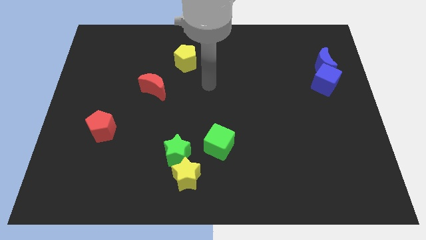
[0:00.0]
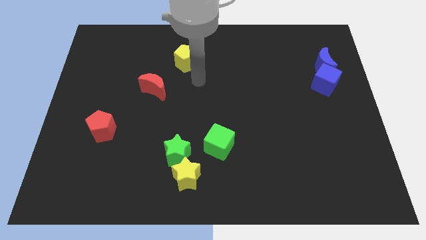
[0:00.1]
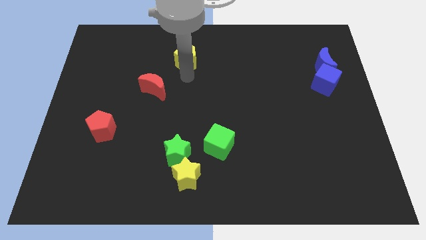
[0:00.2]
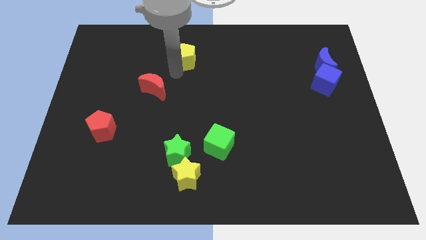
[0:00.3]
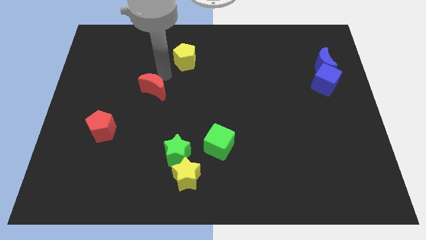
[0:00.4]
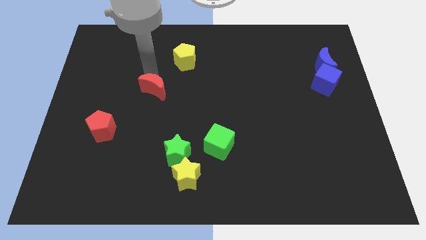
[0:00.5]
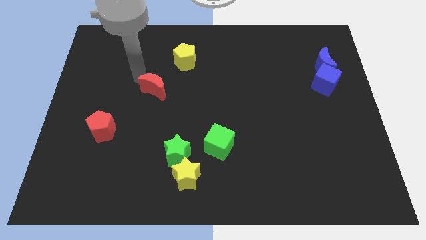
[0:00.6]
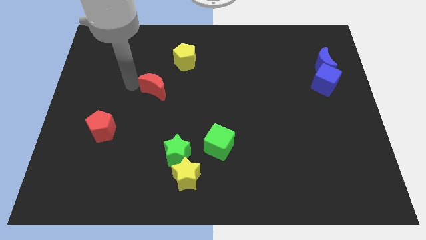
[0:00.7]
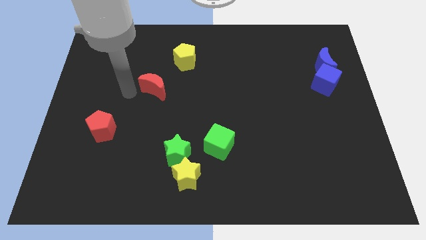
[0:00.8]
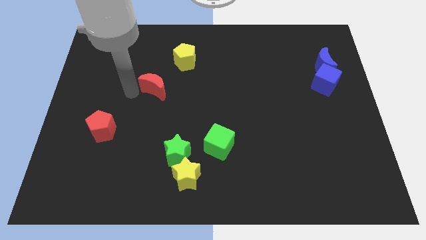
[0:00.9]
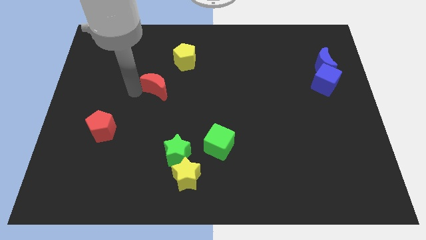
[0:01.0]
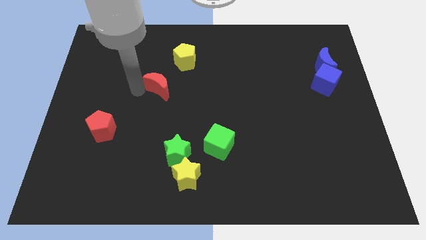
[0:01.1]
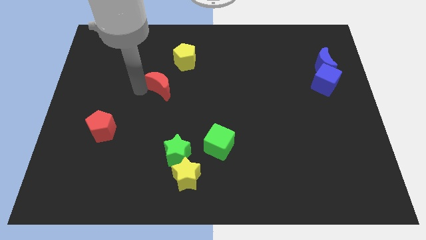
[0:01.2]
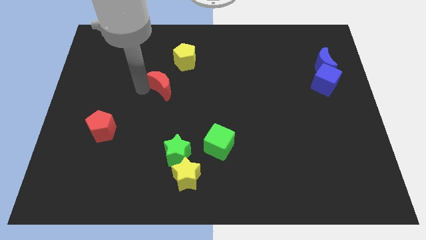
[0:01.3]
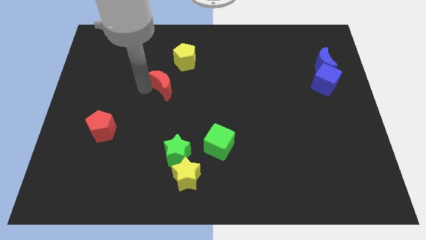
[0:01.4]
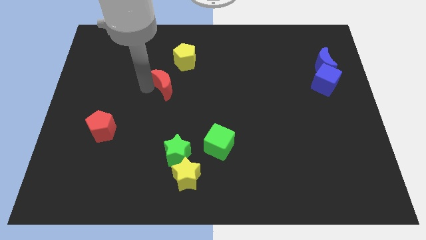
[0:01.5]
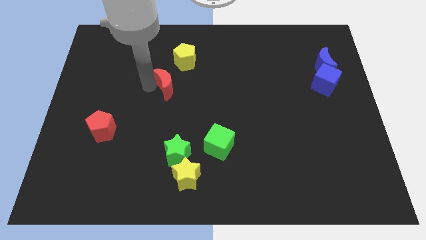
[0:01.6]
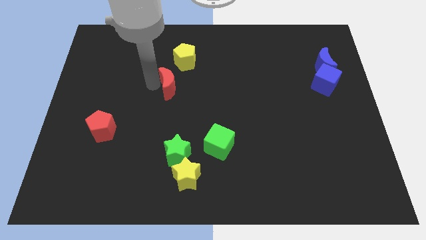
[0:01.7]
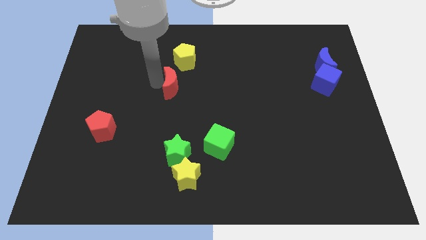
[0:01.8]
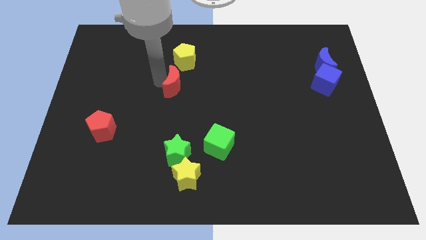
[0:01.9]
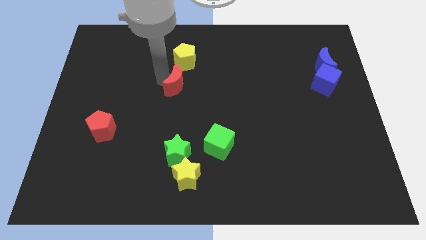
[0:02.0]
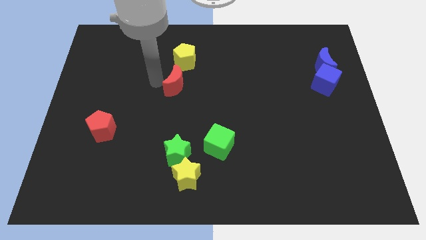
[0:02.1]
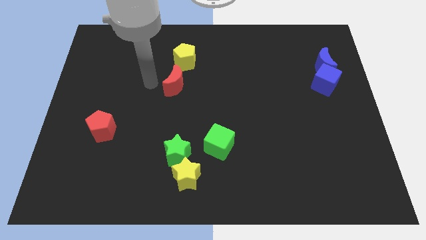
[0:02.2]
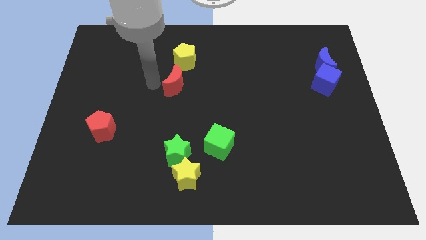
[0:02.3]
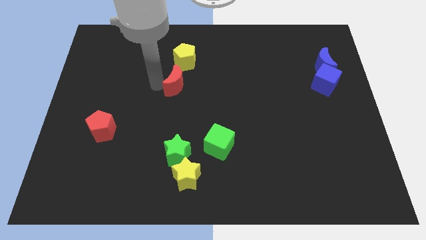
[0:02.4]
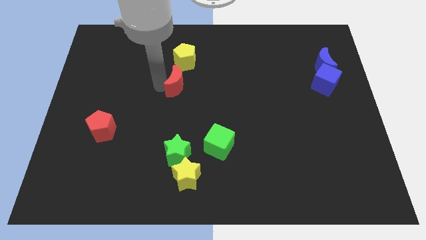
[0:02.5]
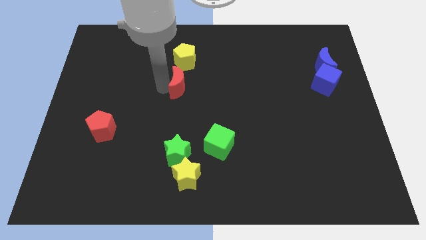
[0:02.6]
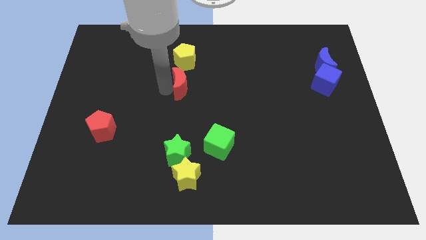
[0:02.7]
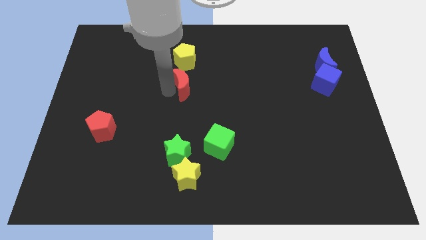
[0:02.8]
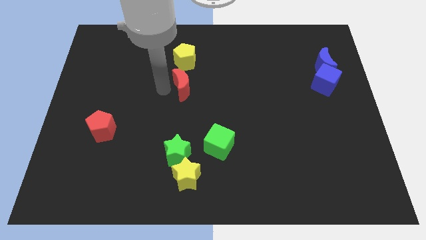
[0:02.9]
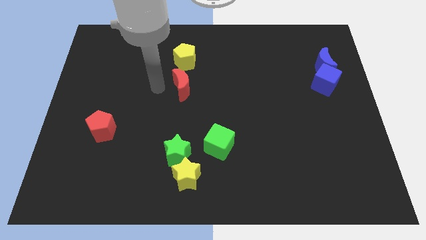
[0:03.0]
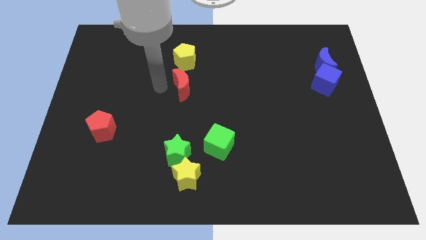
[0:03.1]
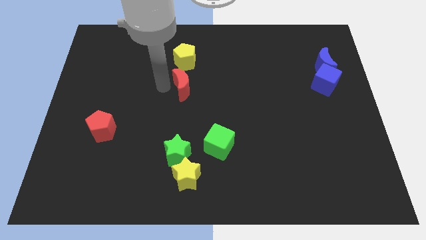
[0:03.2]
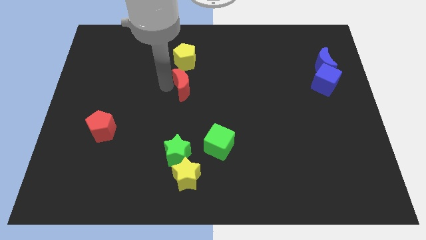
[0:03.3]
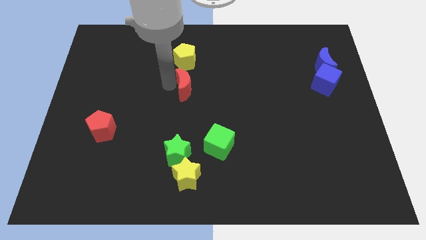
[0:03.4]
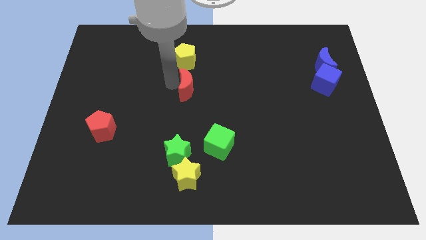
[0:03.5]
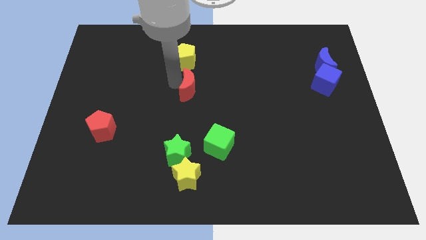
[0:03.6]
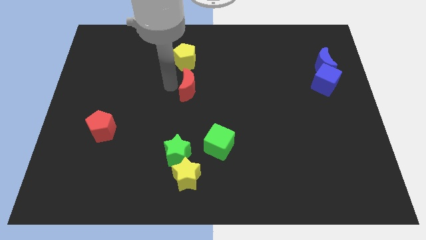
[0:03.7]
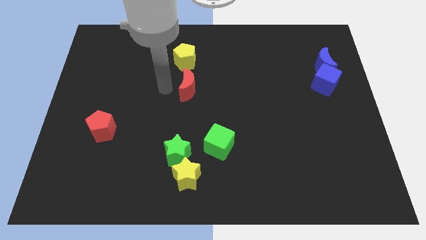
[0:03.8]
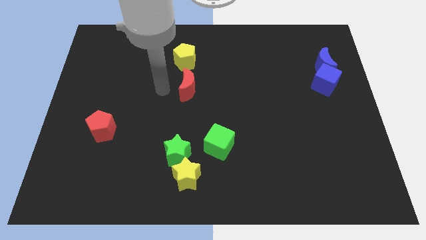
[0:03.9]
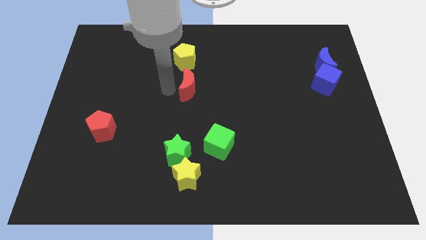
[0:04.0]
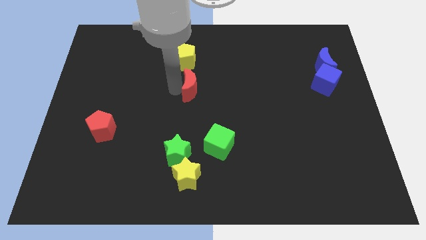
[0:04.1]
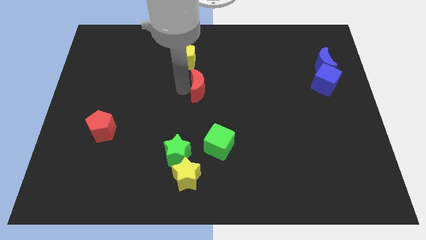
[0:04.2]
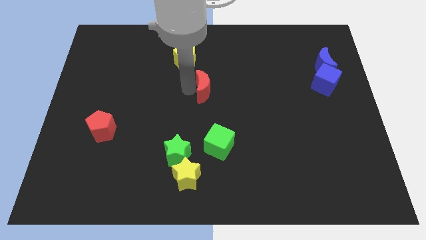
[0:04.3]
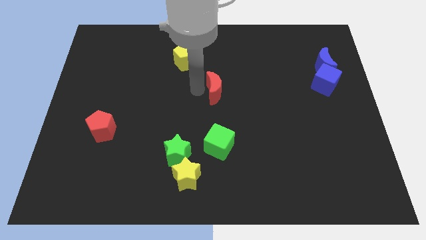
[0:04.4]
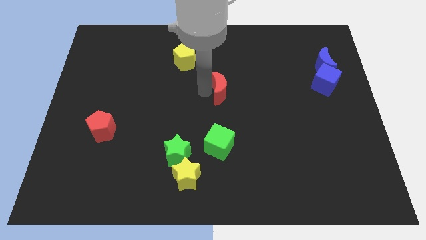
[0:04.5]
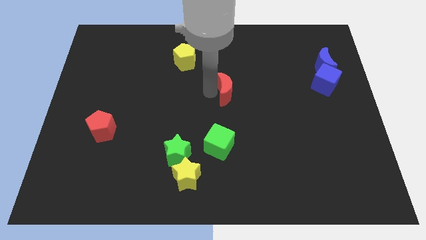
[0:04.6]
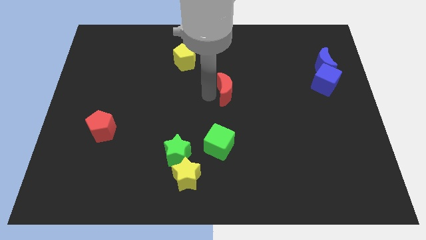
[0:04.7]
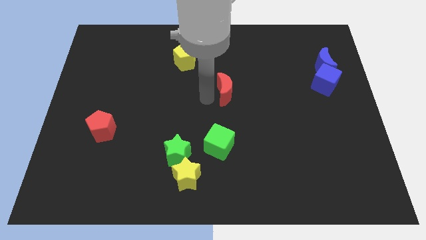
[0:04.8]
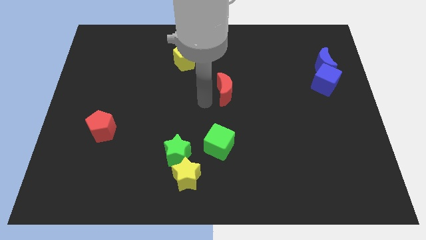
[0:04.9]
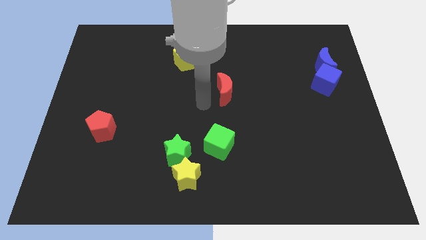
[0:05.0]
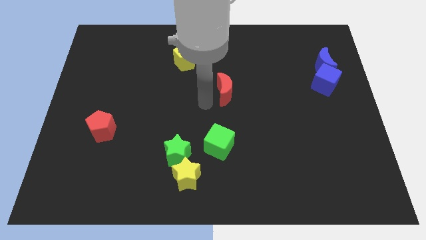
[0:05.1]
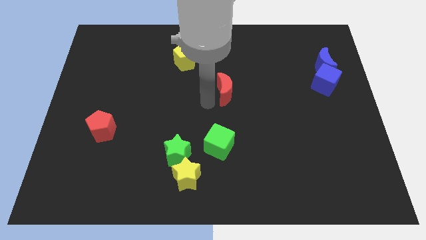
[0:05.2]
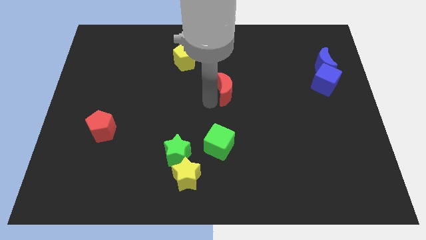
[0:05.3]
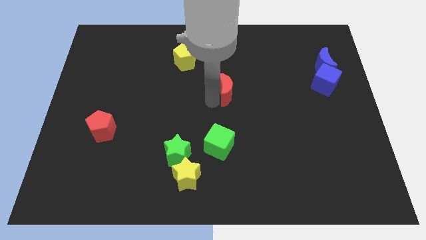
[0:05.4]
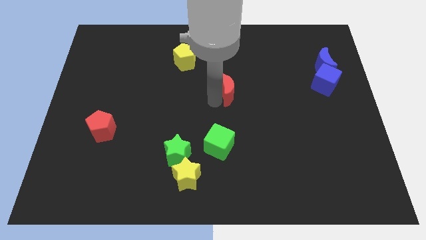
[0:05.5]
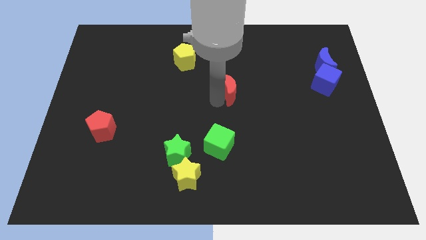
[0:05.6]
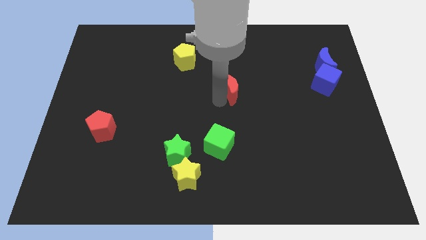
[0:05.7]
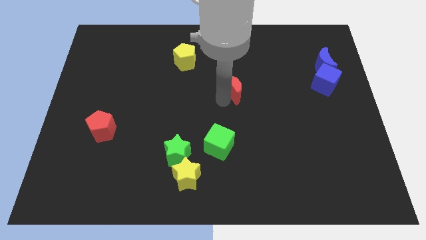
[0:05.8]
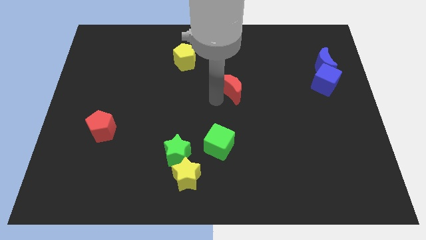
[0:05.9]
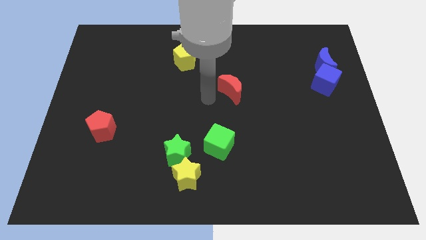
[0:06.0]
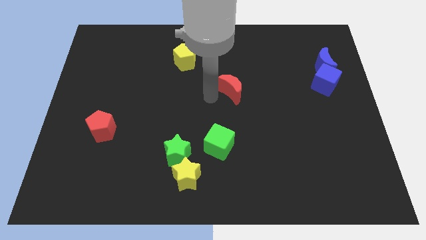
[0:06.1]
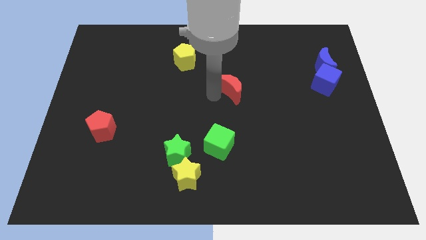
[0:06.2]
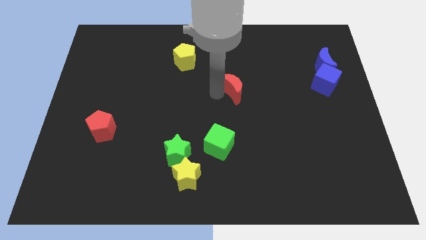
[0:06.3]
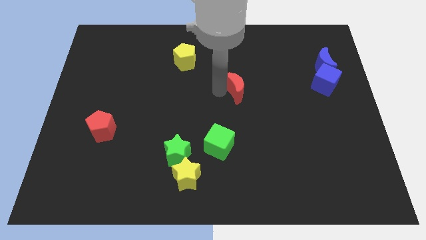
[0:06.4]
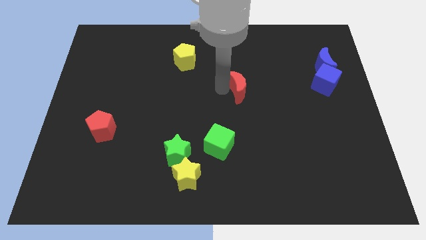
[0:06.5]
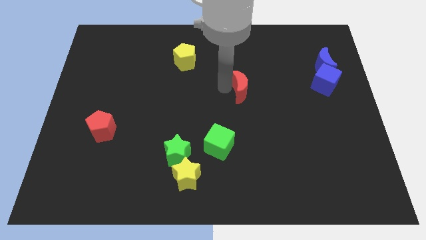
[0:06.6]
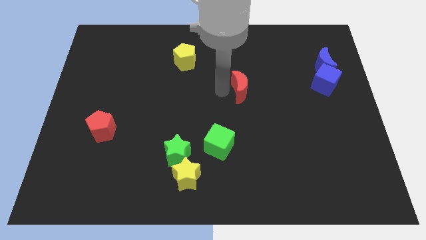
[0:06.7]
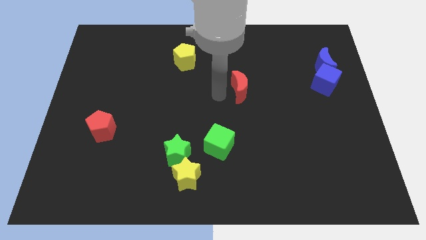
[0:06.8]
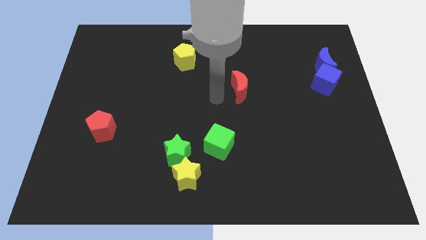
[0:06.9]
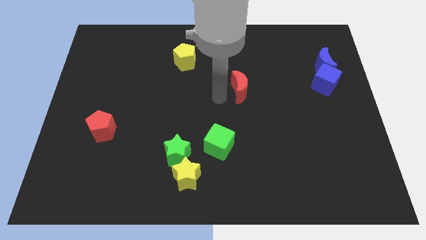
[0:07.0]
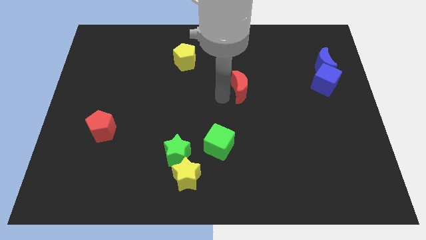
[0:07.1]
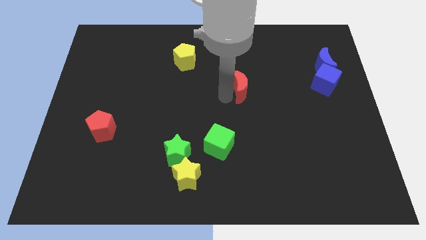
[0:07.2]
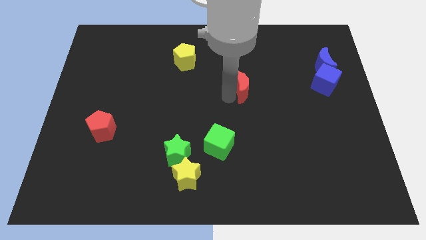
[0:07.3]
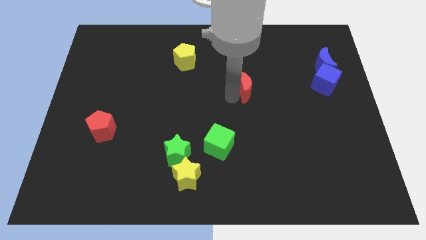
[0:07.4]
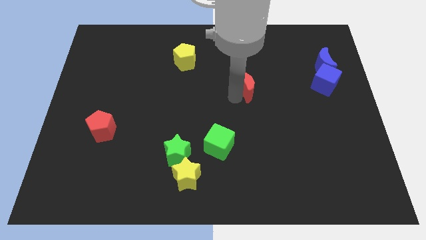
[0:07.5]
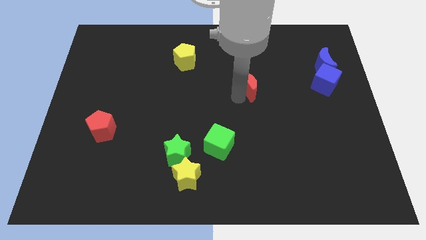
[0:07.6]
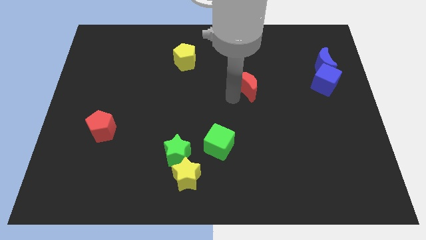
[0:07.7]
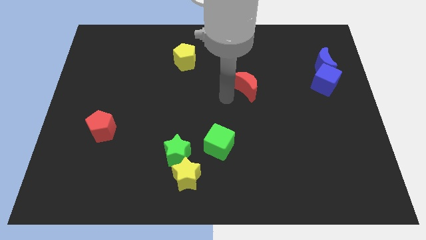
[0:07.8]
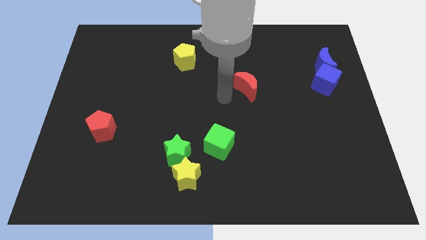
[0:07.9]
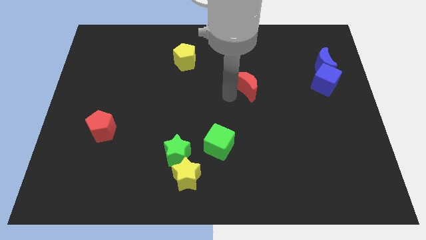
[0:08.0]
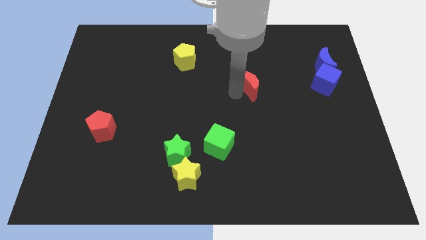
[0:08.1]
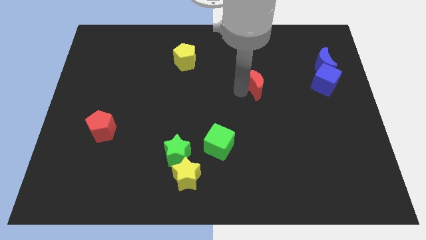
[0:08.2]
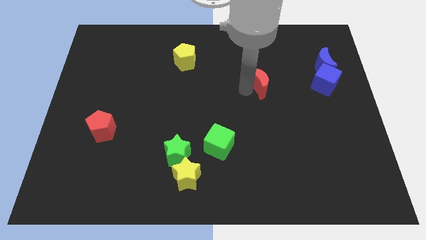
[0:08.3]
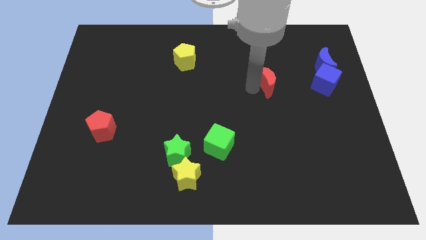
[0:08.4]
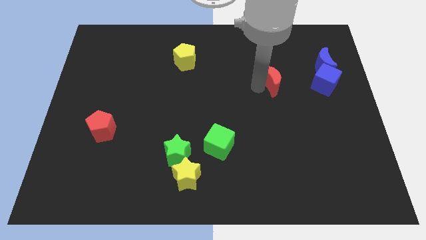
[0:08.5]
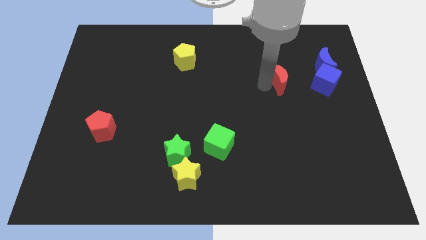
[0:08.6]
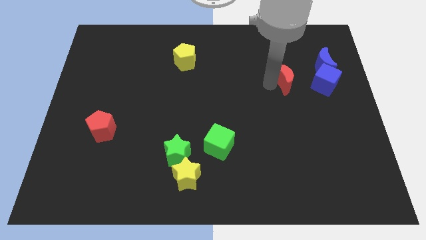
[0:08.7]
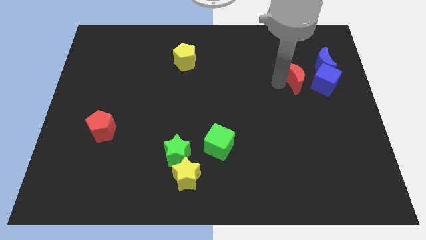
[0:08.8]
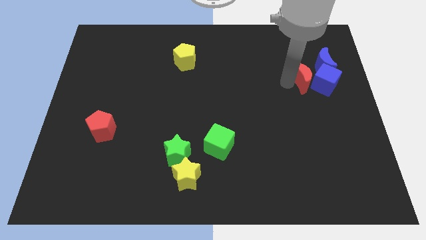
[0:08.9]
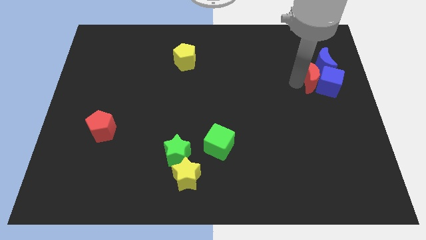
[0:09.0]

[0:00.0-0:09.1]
slide the red moon close to the blue moon
